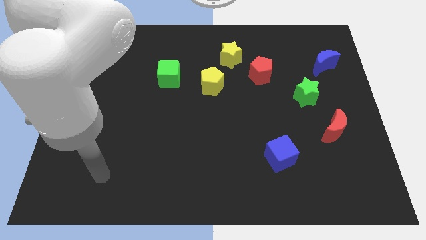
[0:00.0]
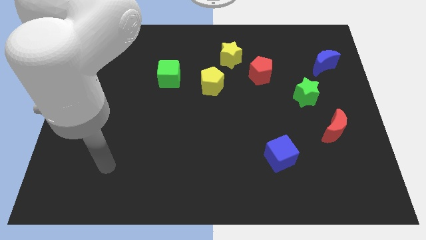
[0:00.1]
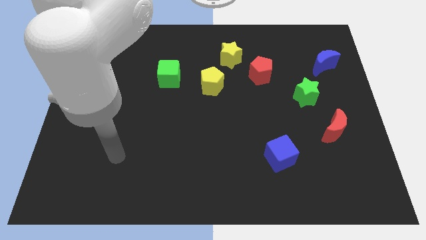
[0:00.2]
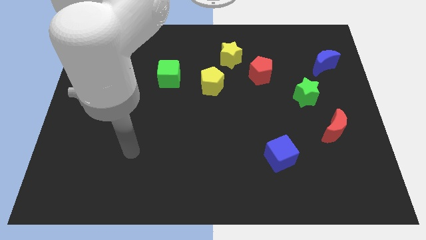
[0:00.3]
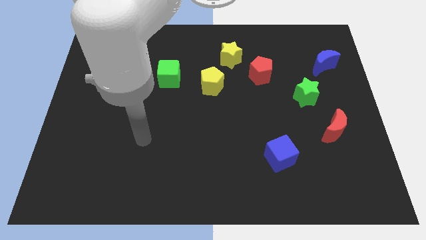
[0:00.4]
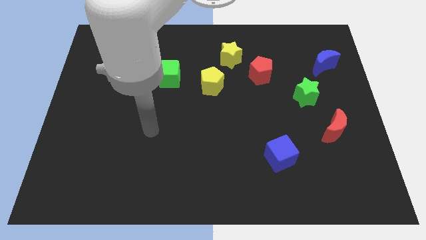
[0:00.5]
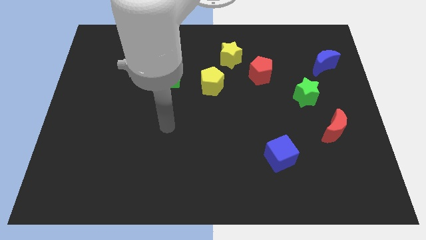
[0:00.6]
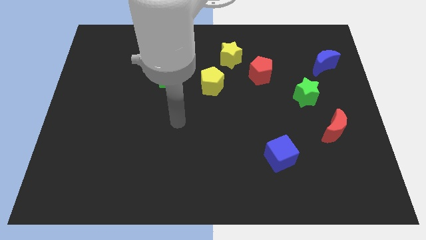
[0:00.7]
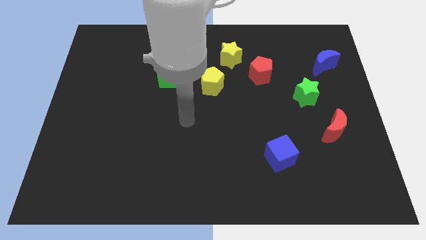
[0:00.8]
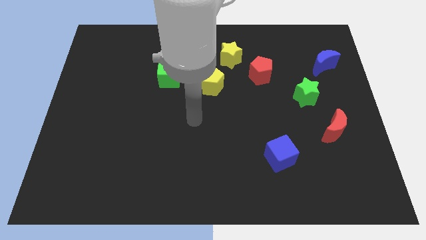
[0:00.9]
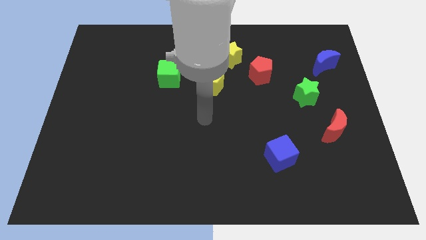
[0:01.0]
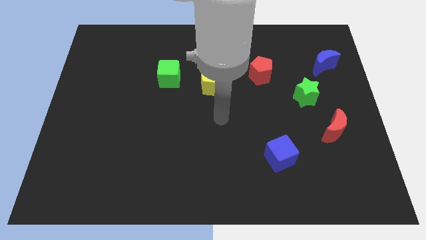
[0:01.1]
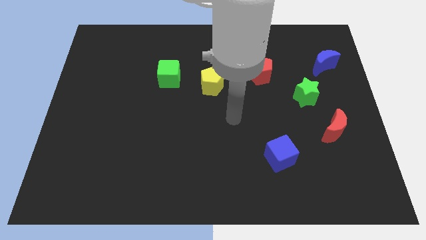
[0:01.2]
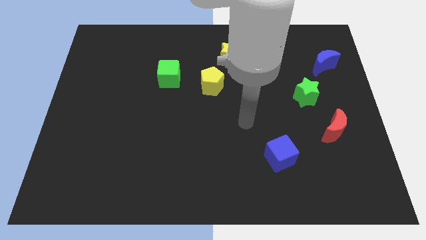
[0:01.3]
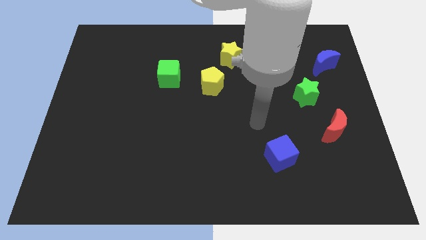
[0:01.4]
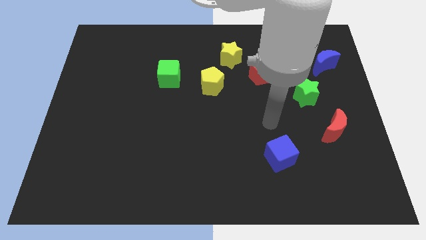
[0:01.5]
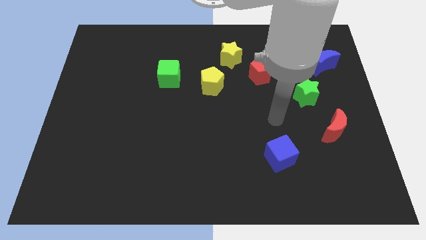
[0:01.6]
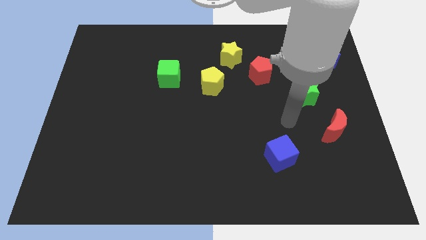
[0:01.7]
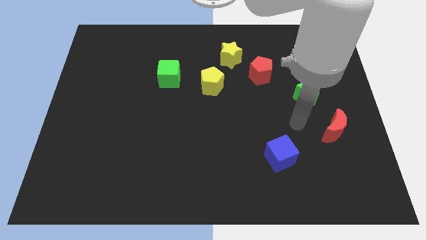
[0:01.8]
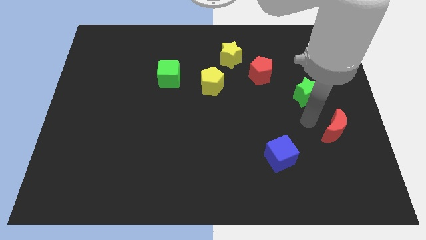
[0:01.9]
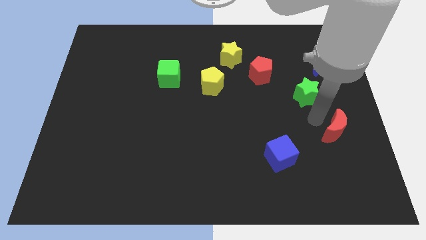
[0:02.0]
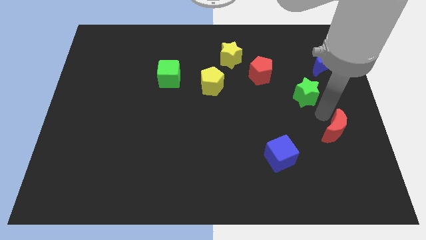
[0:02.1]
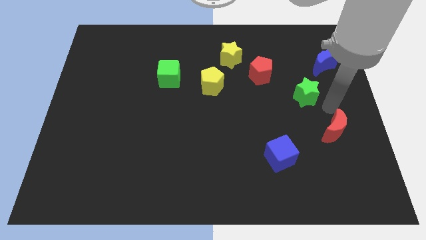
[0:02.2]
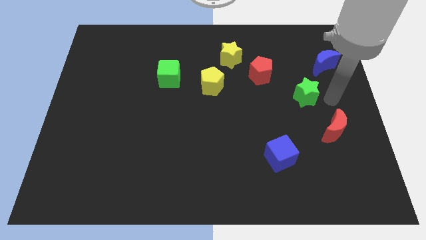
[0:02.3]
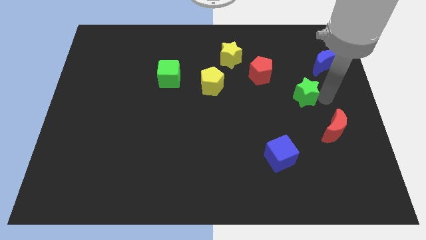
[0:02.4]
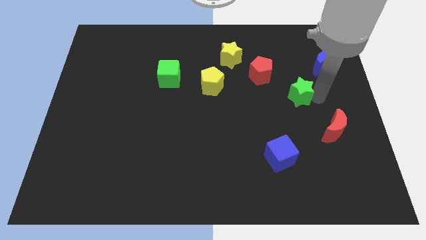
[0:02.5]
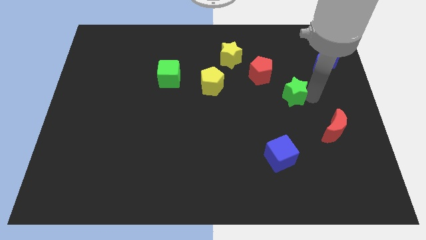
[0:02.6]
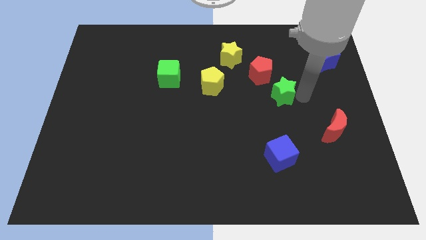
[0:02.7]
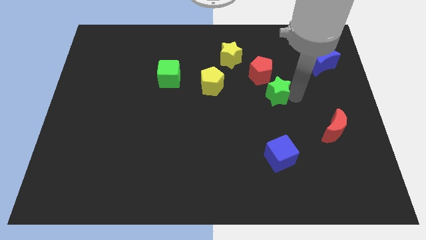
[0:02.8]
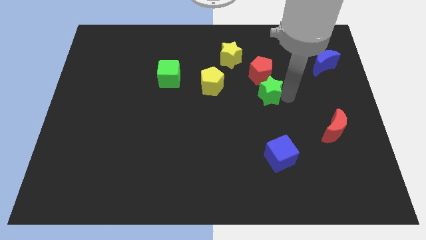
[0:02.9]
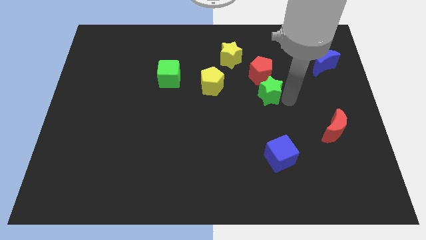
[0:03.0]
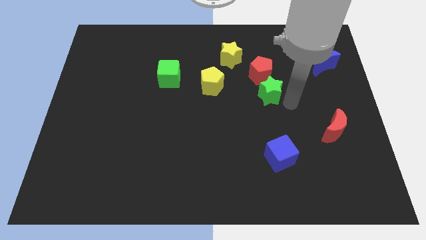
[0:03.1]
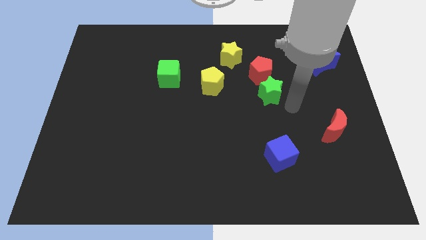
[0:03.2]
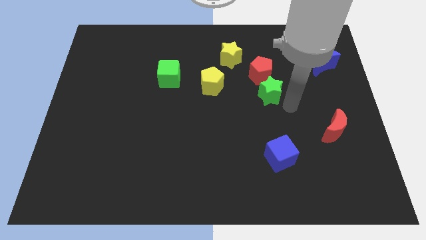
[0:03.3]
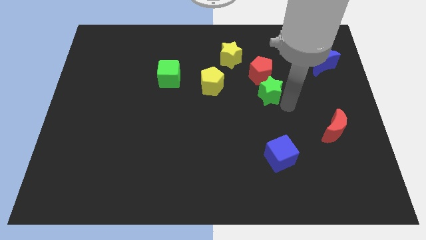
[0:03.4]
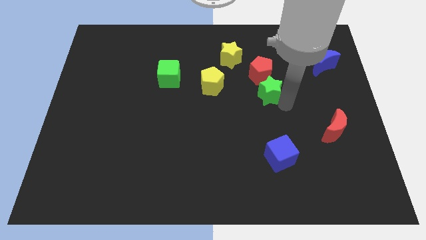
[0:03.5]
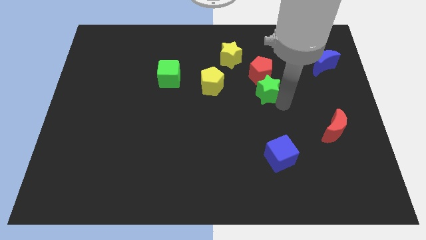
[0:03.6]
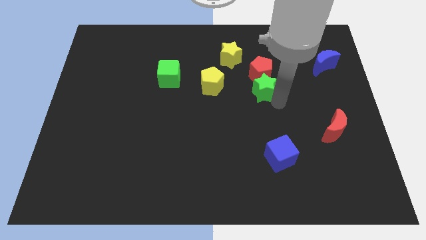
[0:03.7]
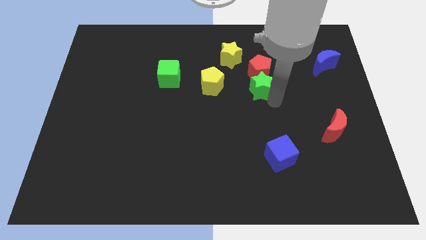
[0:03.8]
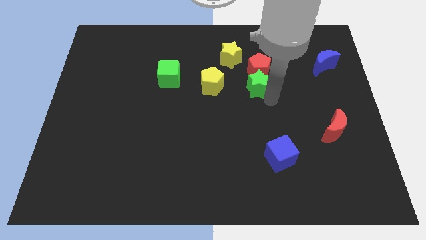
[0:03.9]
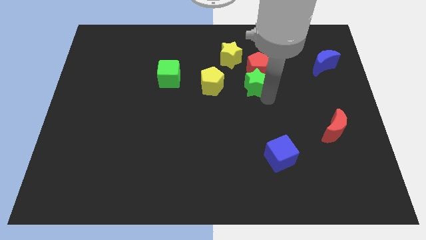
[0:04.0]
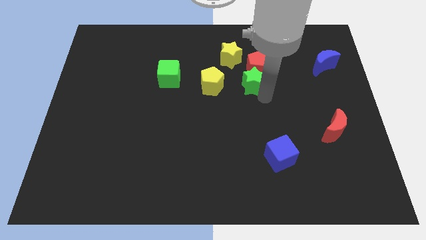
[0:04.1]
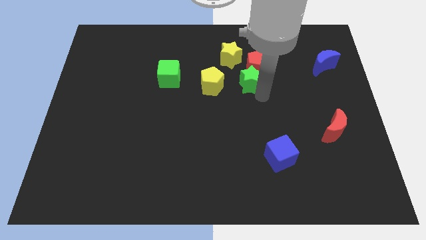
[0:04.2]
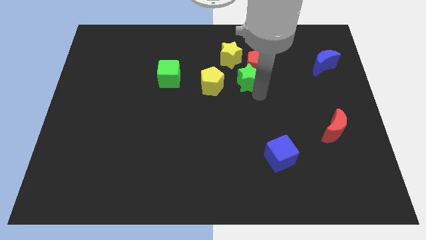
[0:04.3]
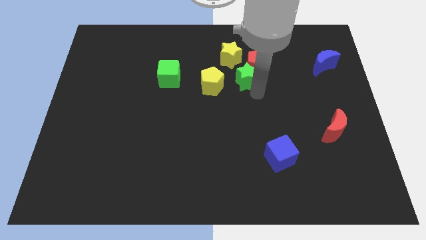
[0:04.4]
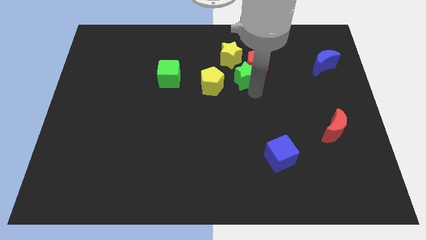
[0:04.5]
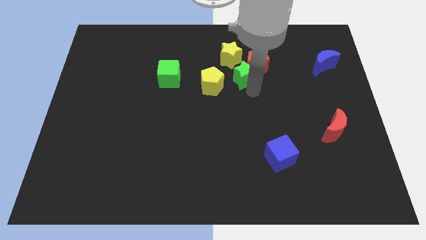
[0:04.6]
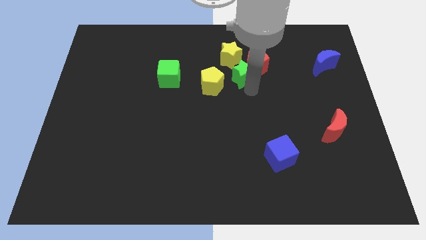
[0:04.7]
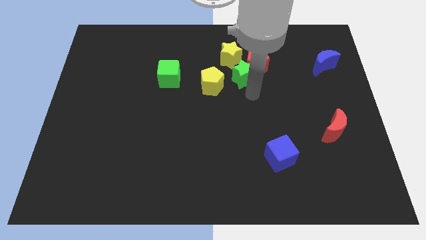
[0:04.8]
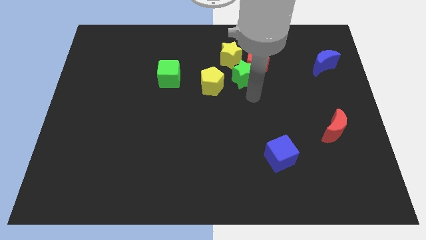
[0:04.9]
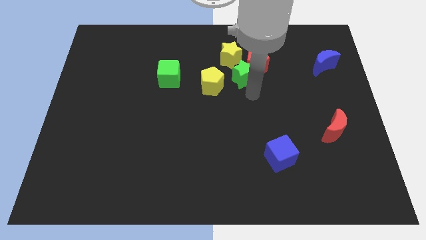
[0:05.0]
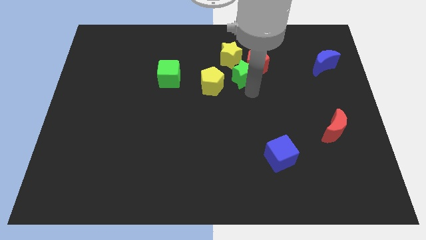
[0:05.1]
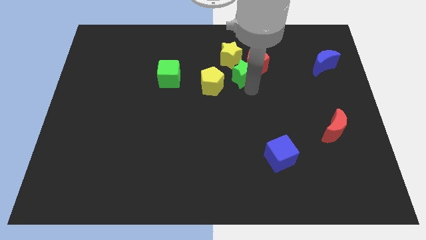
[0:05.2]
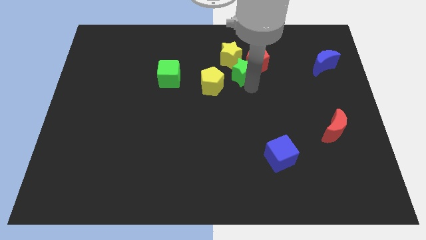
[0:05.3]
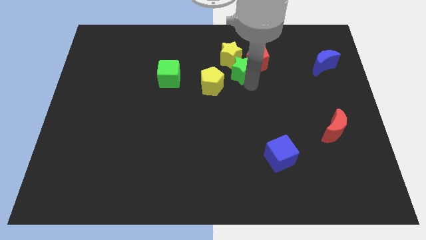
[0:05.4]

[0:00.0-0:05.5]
slide the green star to the yellow star

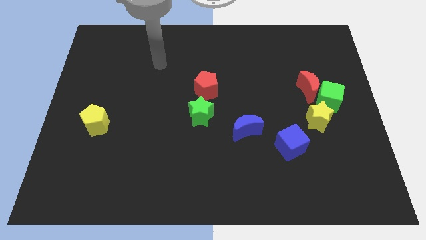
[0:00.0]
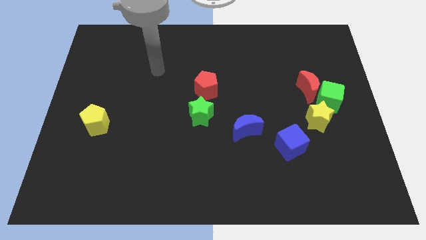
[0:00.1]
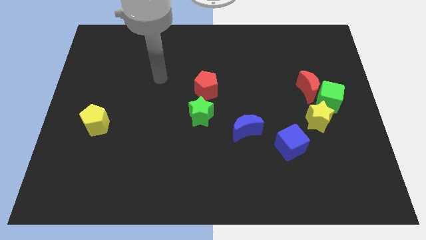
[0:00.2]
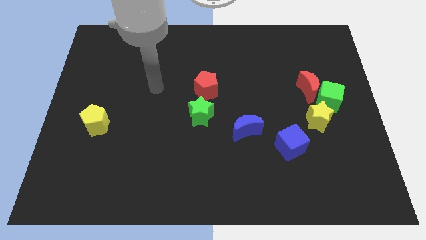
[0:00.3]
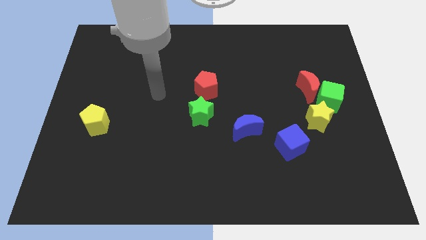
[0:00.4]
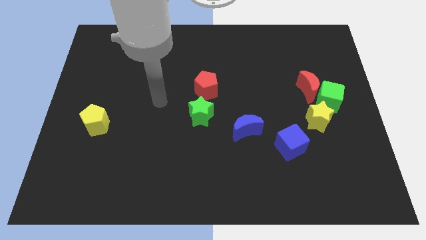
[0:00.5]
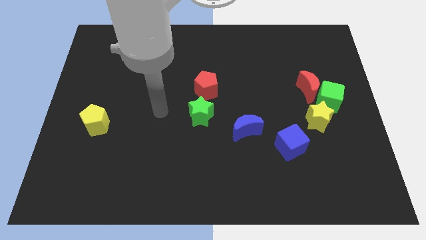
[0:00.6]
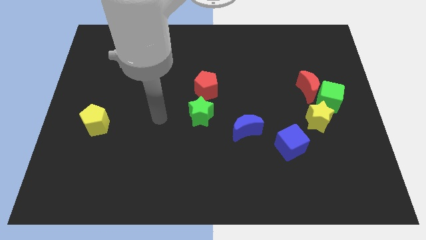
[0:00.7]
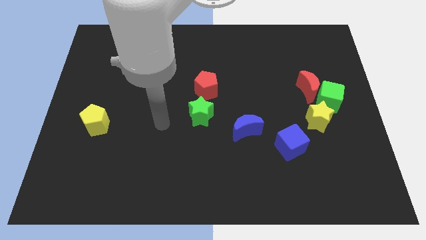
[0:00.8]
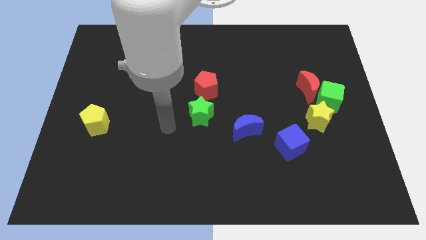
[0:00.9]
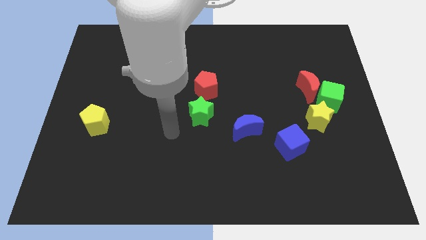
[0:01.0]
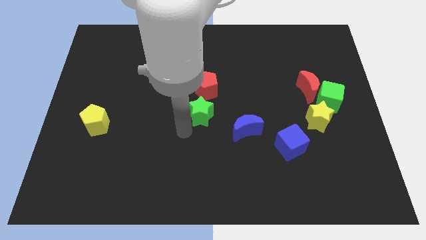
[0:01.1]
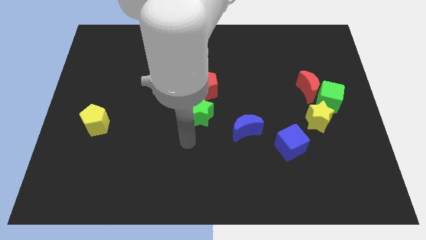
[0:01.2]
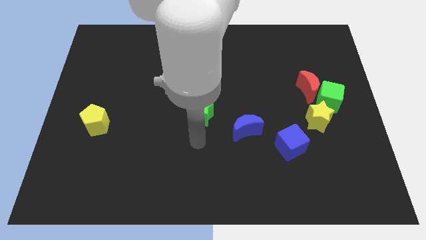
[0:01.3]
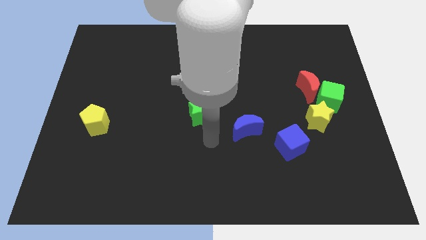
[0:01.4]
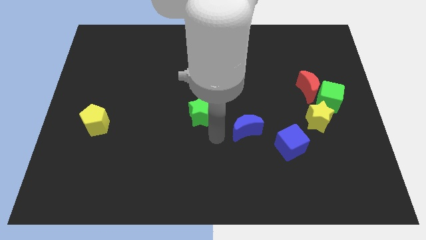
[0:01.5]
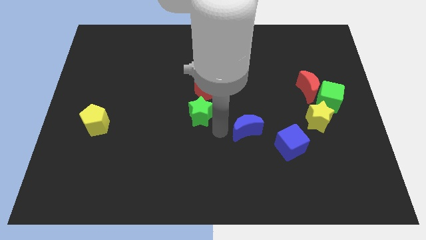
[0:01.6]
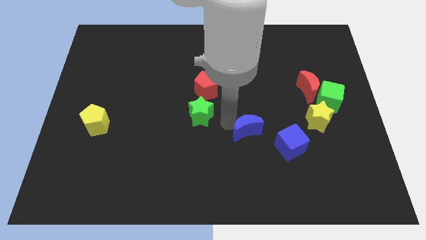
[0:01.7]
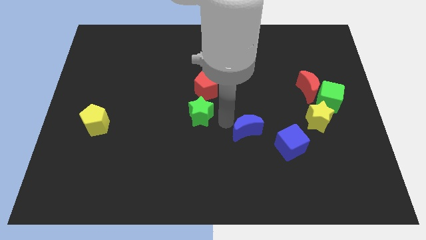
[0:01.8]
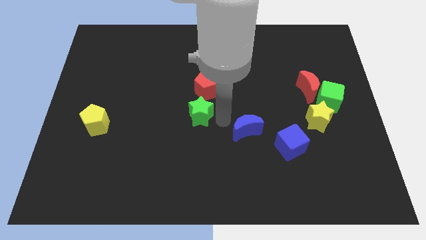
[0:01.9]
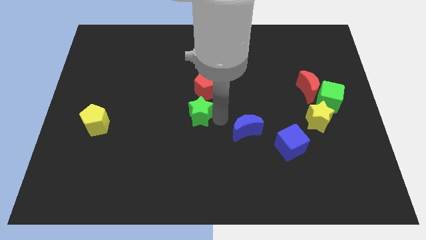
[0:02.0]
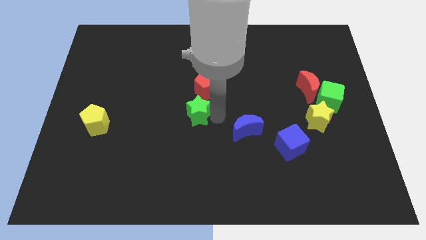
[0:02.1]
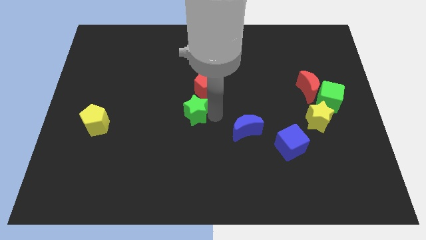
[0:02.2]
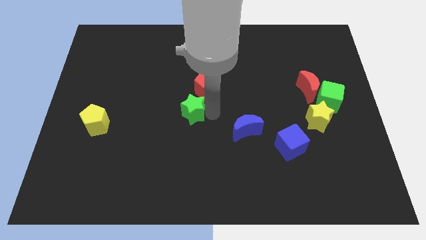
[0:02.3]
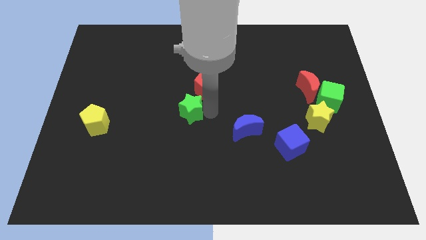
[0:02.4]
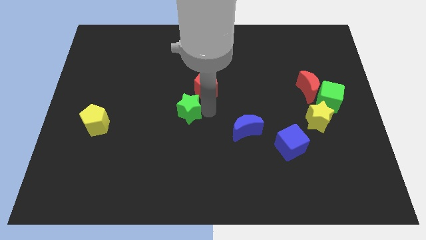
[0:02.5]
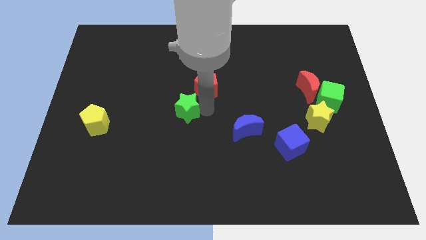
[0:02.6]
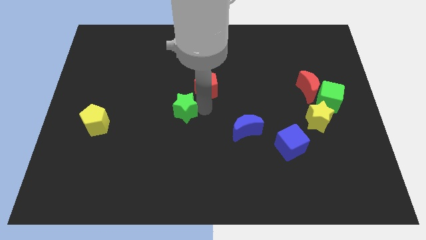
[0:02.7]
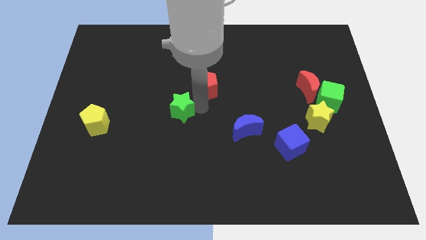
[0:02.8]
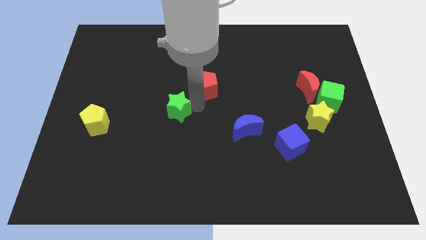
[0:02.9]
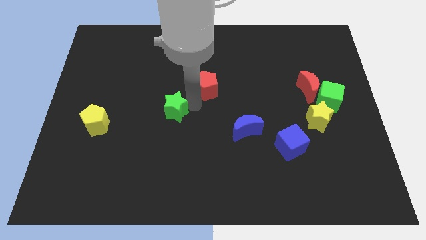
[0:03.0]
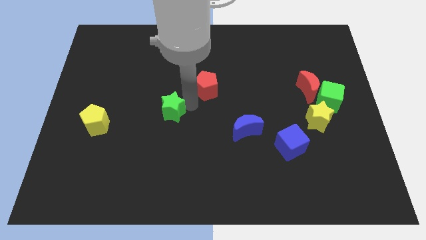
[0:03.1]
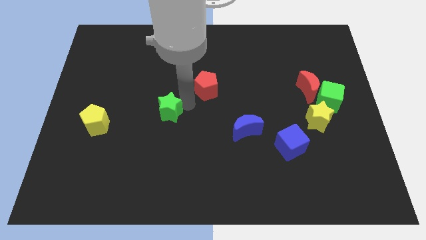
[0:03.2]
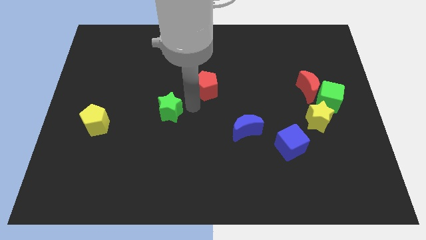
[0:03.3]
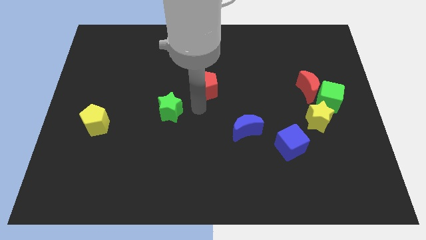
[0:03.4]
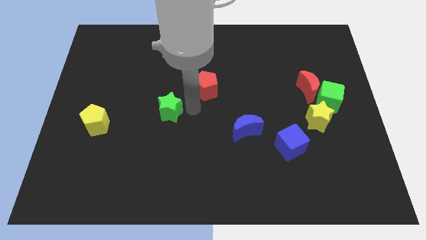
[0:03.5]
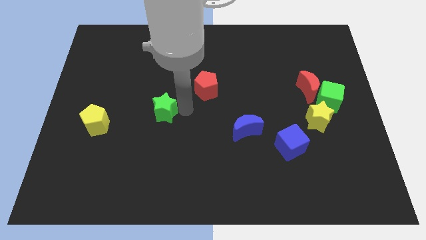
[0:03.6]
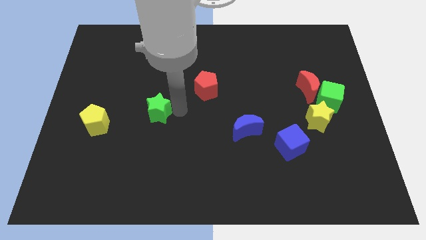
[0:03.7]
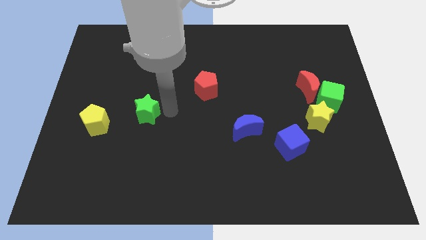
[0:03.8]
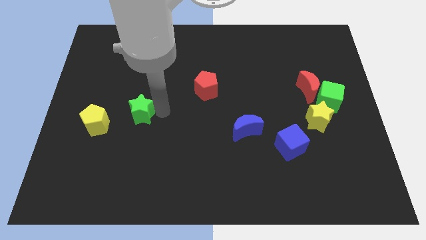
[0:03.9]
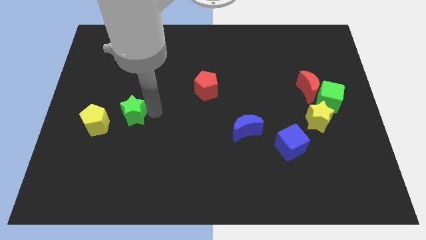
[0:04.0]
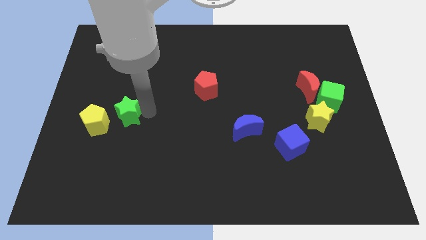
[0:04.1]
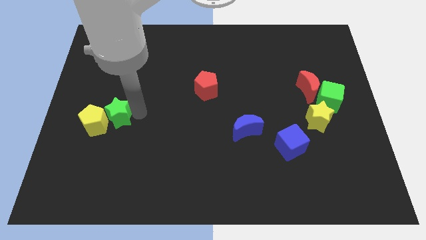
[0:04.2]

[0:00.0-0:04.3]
move the green star towards the yellow pentagon
